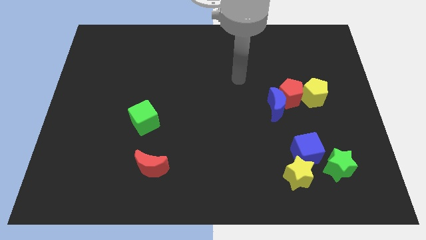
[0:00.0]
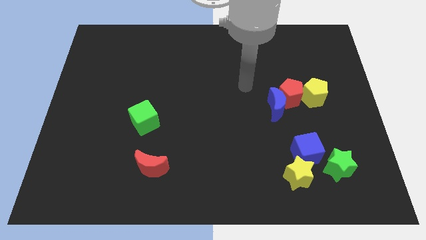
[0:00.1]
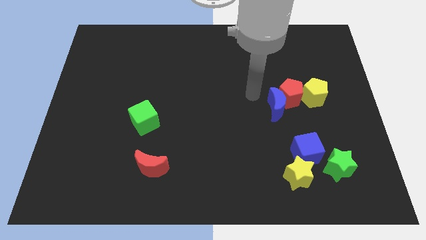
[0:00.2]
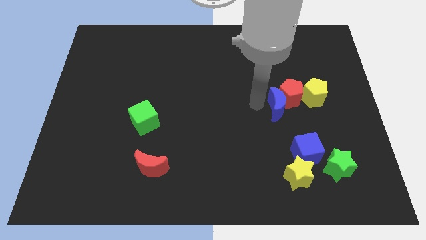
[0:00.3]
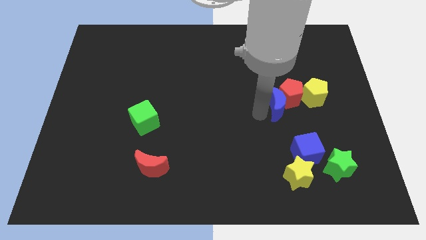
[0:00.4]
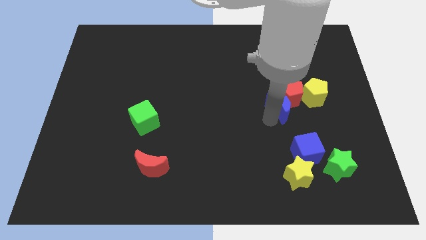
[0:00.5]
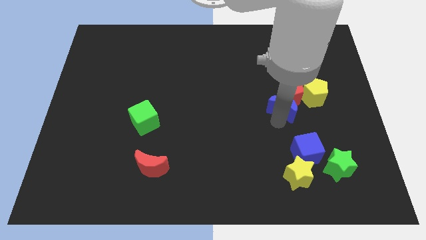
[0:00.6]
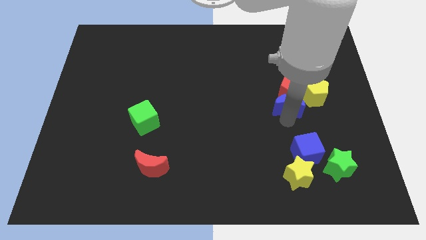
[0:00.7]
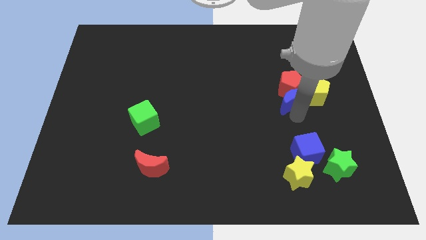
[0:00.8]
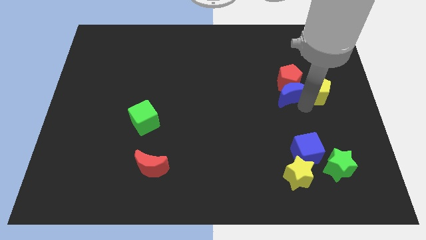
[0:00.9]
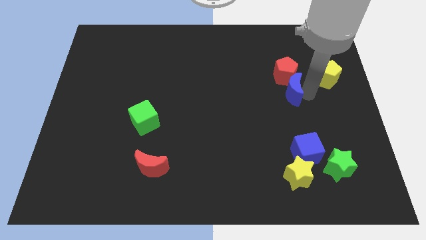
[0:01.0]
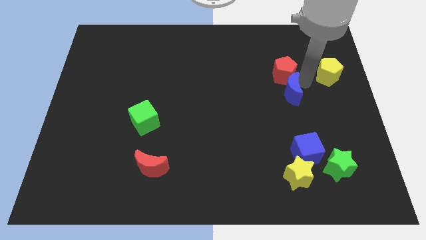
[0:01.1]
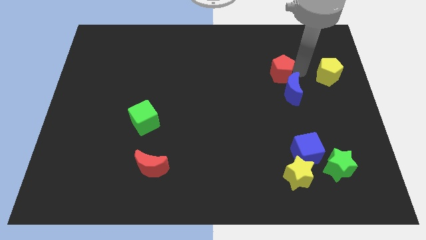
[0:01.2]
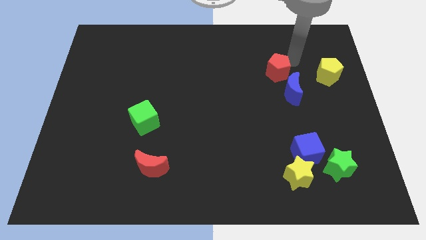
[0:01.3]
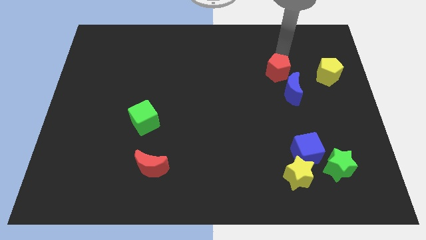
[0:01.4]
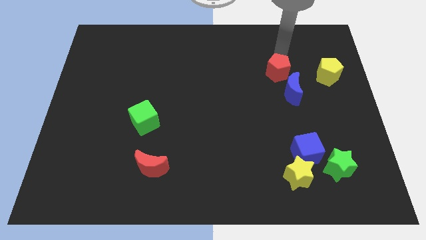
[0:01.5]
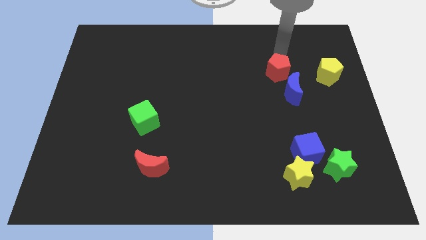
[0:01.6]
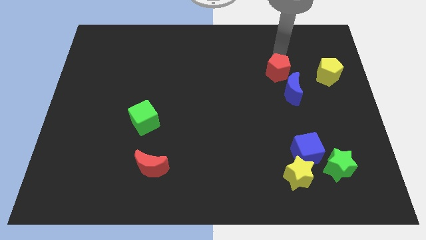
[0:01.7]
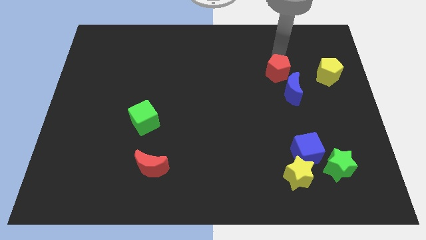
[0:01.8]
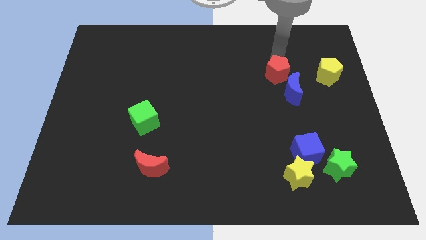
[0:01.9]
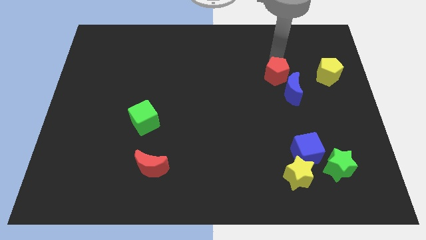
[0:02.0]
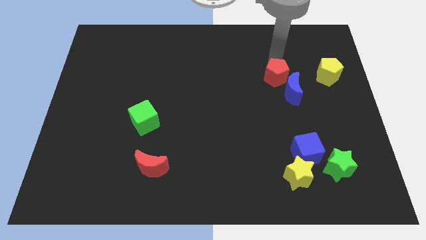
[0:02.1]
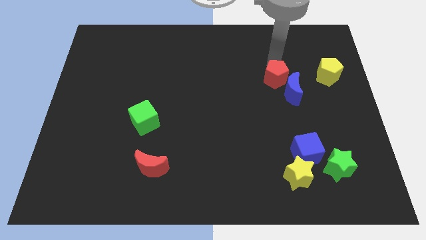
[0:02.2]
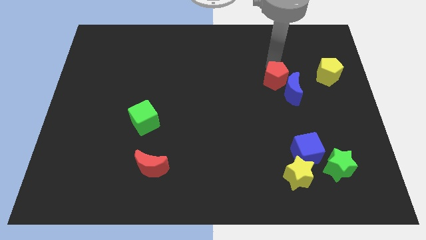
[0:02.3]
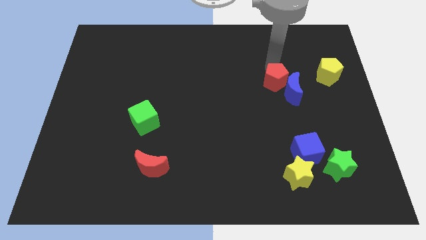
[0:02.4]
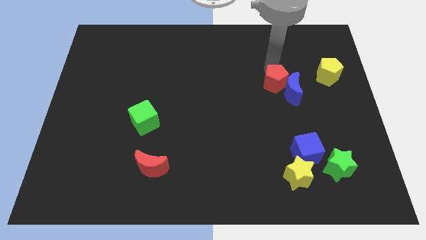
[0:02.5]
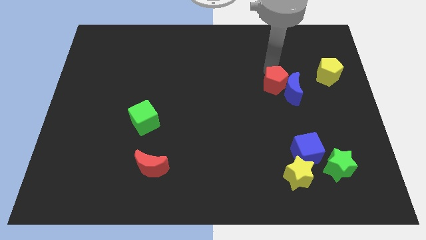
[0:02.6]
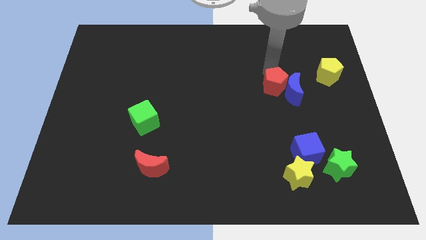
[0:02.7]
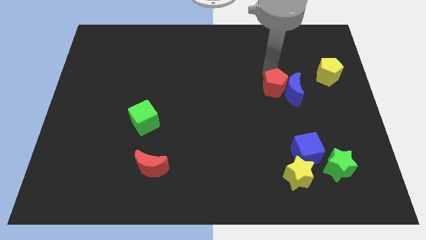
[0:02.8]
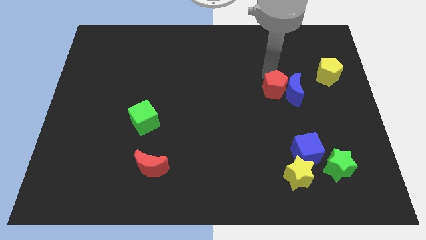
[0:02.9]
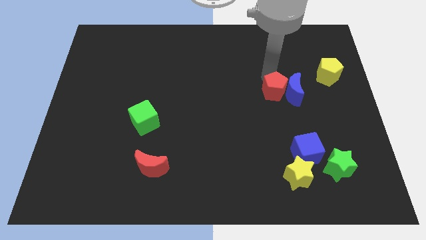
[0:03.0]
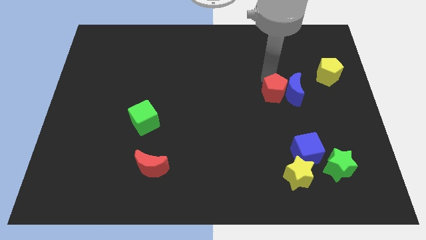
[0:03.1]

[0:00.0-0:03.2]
pull the red pentagon apart from the blue moon and yellow pentagon

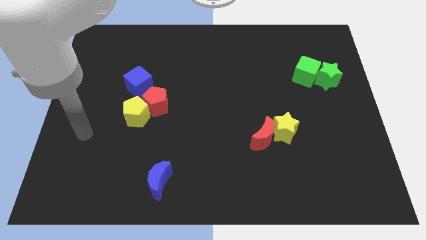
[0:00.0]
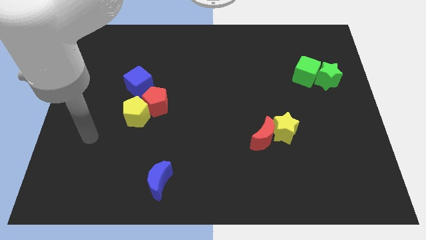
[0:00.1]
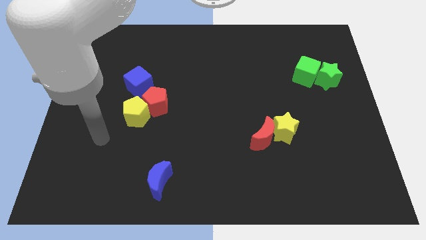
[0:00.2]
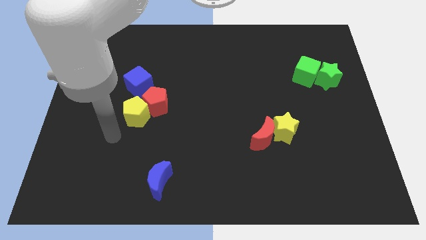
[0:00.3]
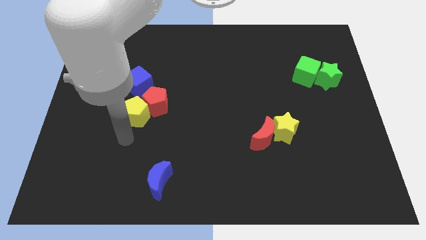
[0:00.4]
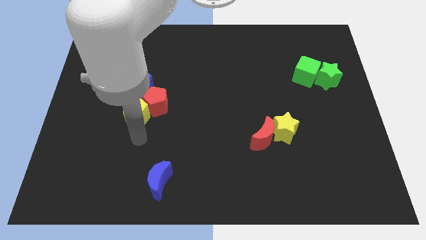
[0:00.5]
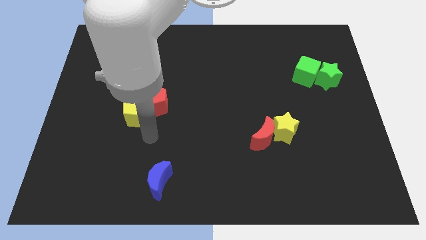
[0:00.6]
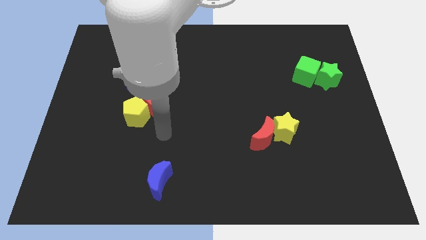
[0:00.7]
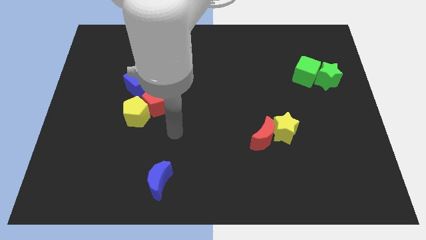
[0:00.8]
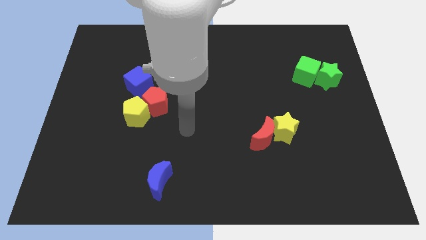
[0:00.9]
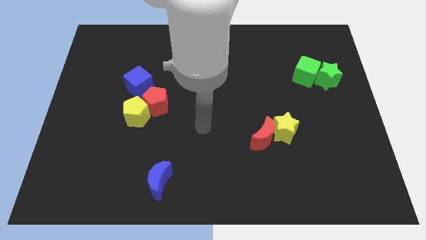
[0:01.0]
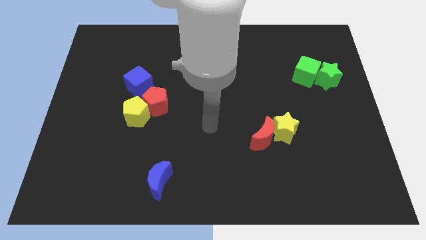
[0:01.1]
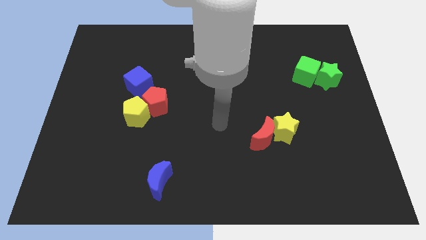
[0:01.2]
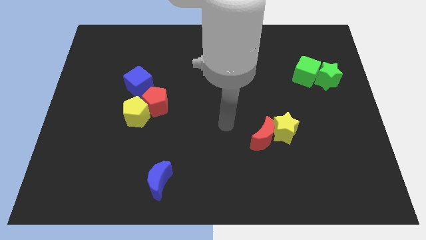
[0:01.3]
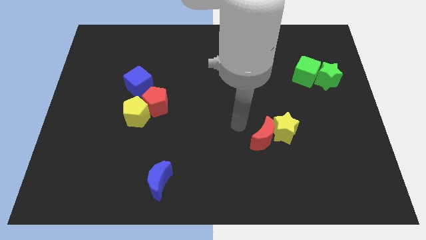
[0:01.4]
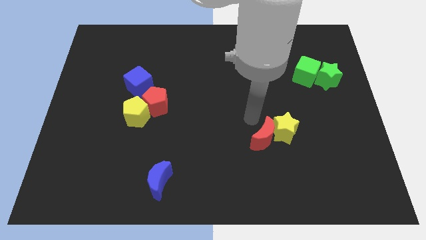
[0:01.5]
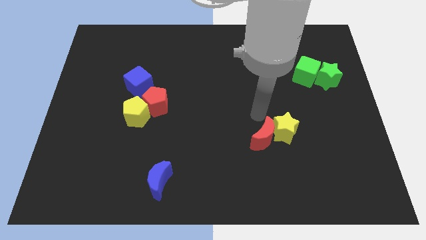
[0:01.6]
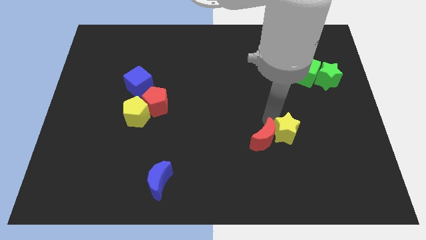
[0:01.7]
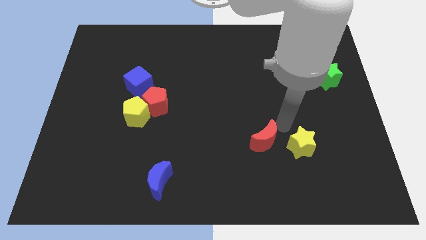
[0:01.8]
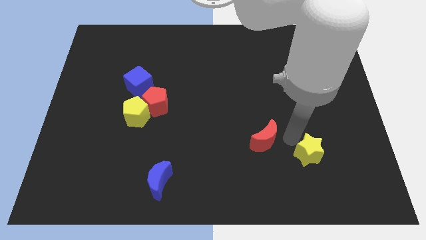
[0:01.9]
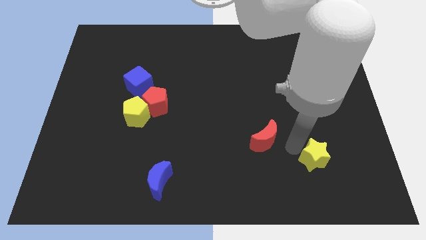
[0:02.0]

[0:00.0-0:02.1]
pull the red moon apart from the yellow star

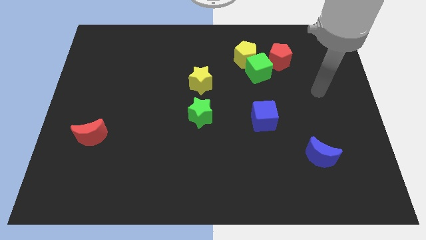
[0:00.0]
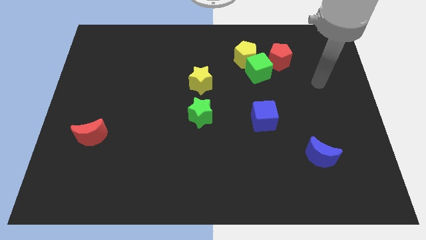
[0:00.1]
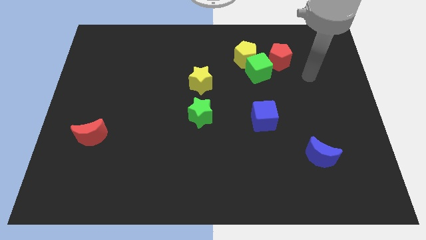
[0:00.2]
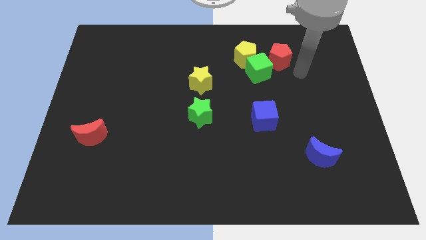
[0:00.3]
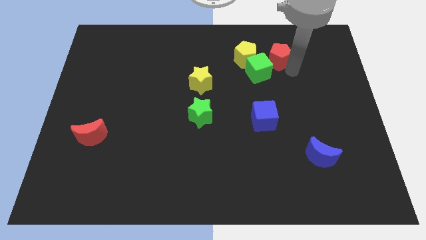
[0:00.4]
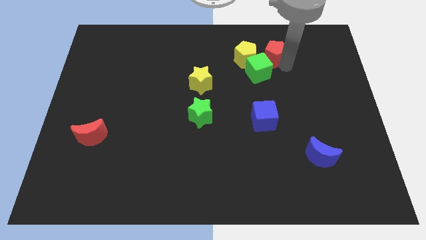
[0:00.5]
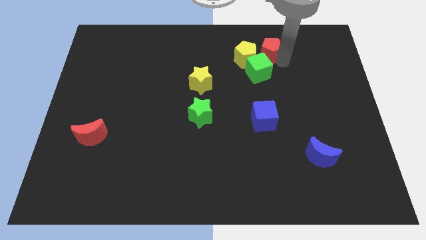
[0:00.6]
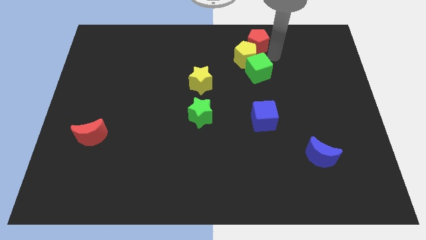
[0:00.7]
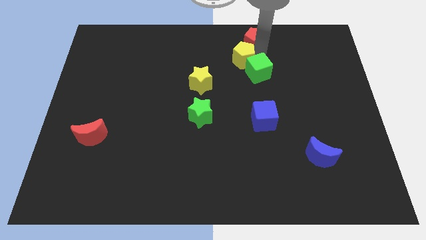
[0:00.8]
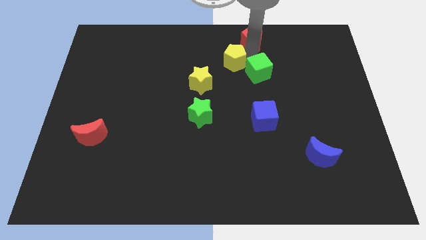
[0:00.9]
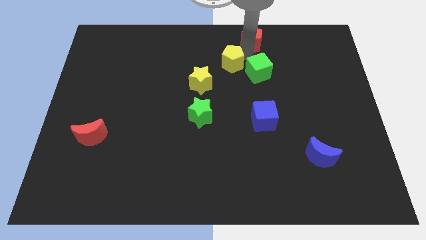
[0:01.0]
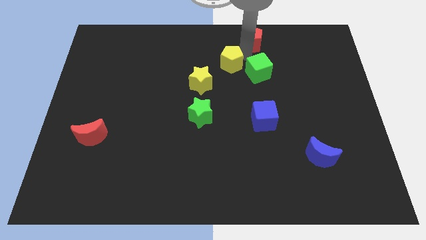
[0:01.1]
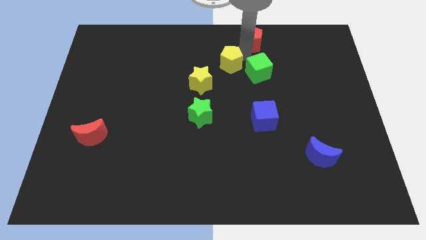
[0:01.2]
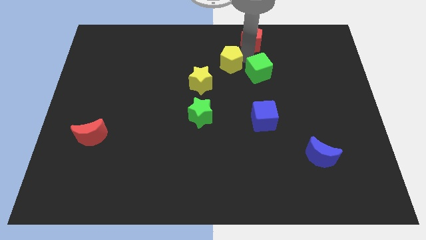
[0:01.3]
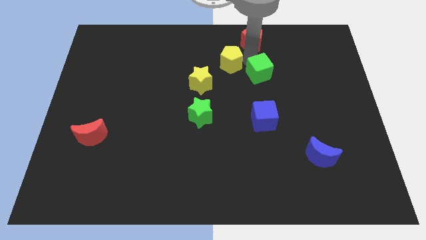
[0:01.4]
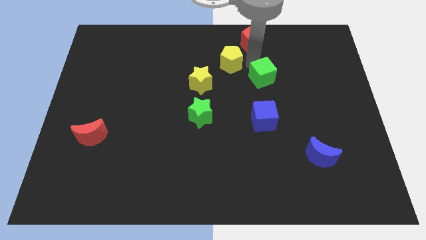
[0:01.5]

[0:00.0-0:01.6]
pull the green cube apart from the yellow pentagon and red pentagon

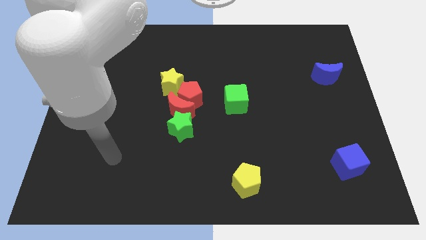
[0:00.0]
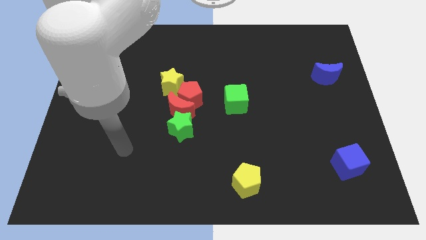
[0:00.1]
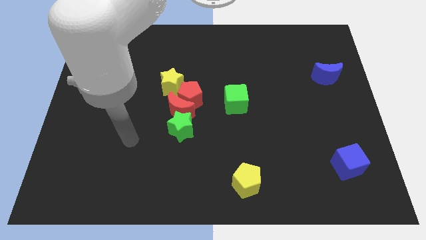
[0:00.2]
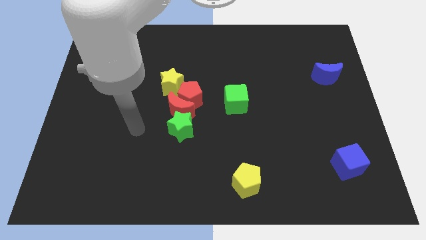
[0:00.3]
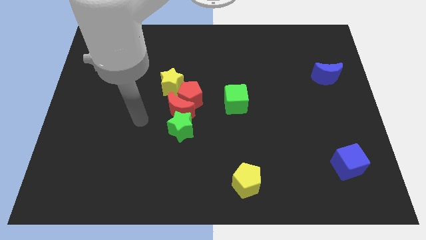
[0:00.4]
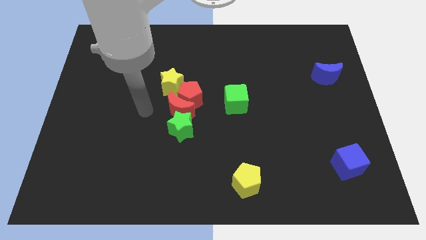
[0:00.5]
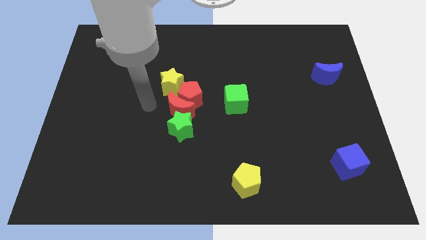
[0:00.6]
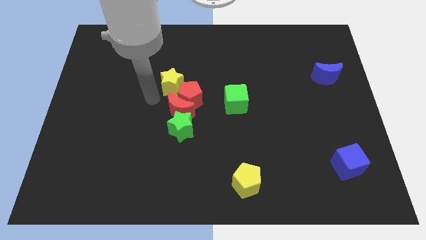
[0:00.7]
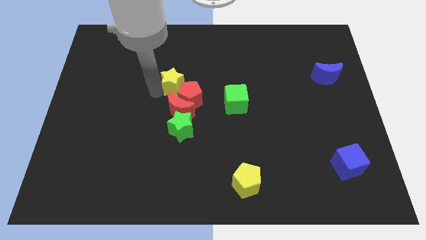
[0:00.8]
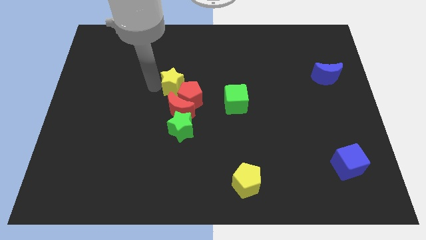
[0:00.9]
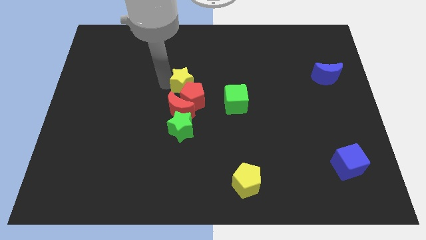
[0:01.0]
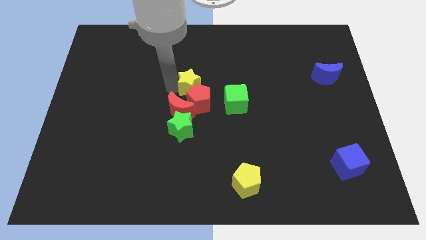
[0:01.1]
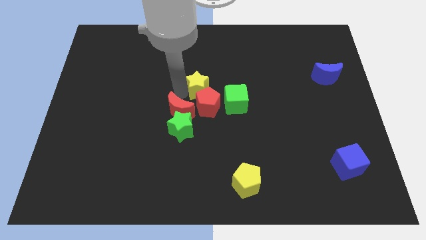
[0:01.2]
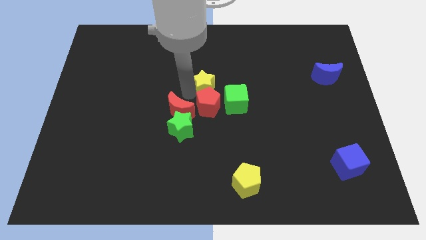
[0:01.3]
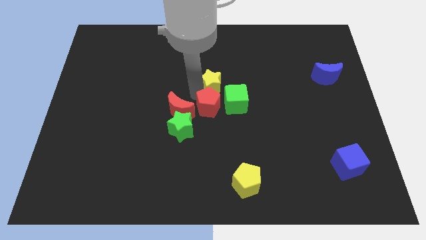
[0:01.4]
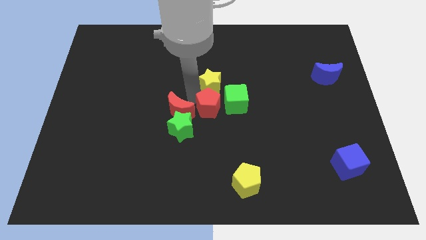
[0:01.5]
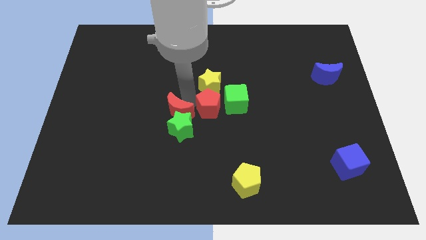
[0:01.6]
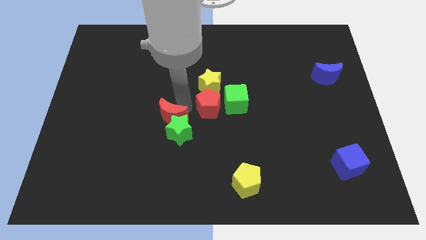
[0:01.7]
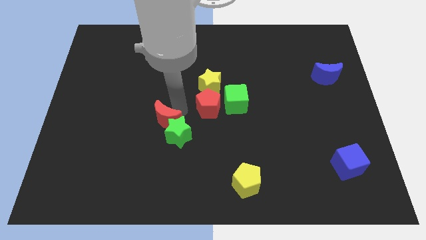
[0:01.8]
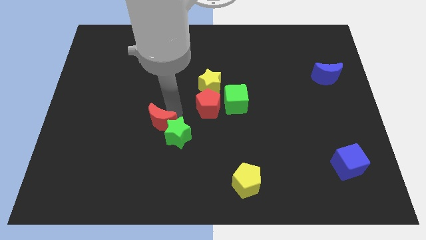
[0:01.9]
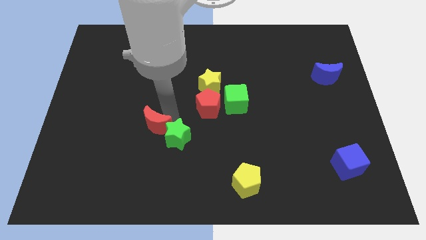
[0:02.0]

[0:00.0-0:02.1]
pull the red moon apart from the group of blocks

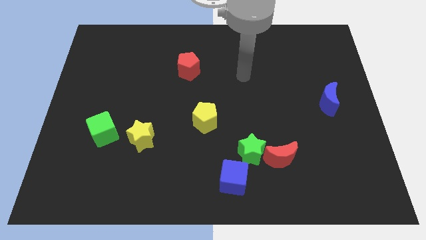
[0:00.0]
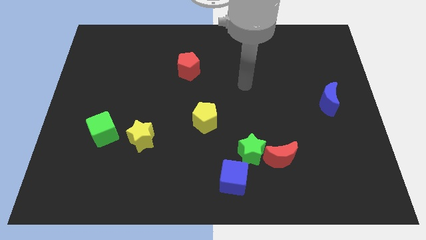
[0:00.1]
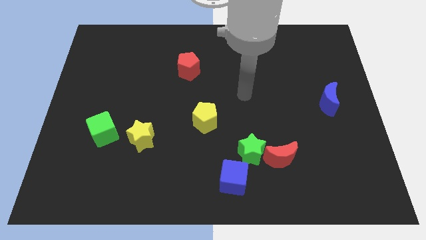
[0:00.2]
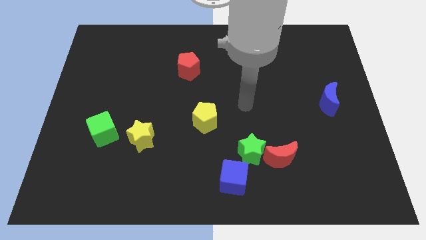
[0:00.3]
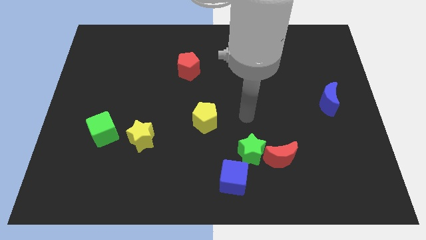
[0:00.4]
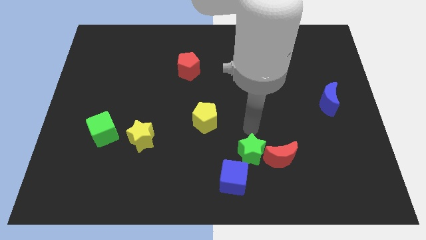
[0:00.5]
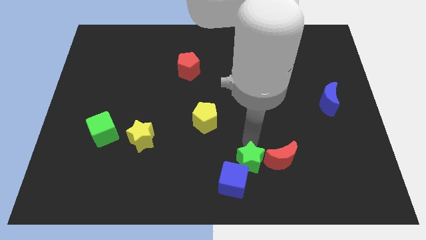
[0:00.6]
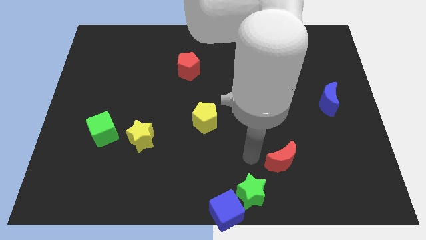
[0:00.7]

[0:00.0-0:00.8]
move the red moon away from the green star
